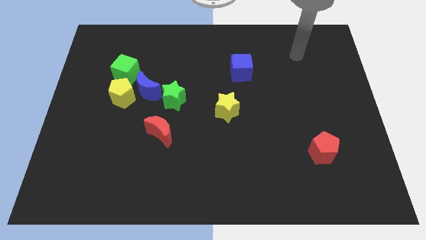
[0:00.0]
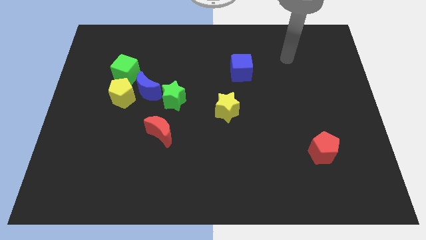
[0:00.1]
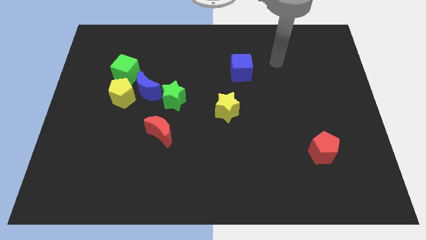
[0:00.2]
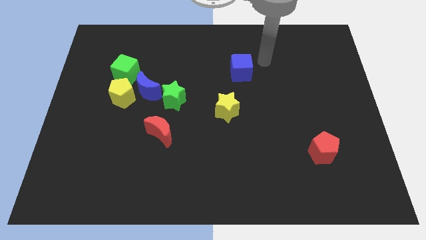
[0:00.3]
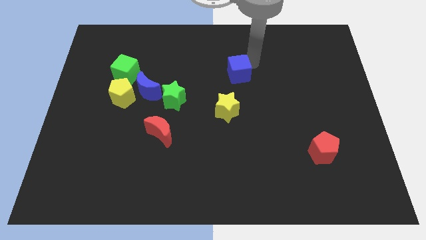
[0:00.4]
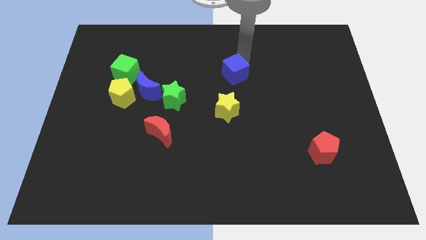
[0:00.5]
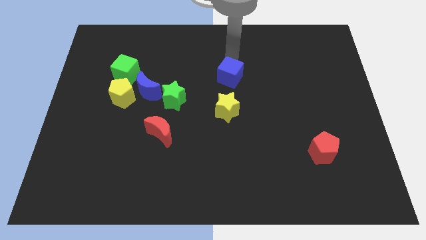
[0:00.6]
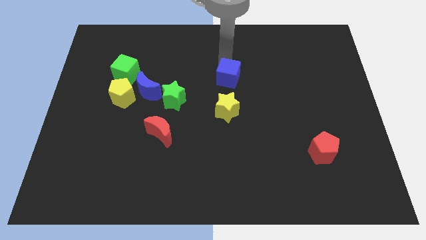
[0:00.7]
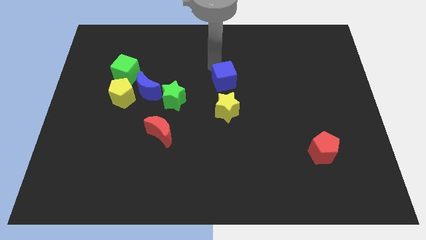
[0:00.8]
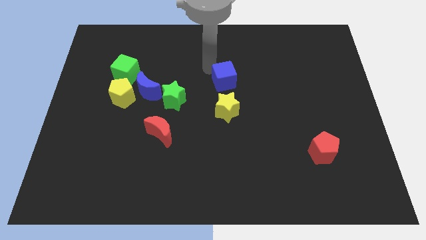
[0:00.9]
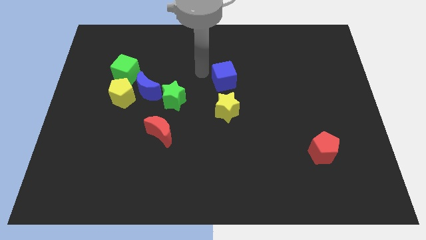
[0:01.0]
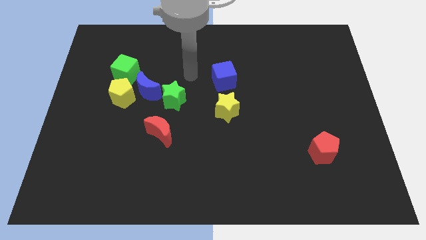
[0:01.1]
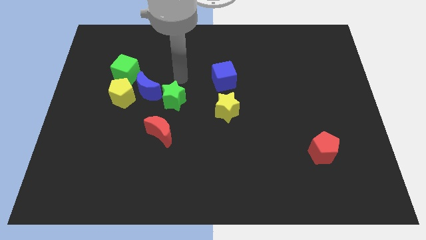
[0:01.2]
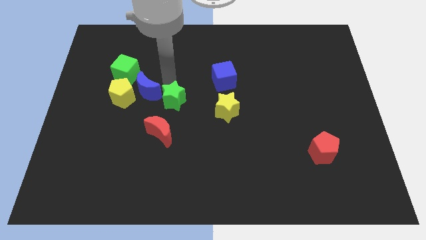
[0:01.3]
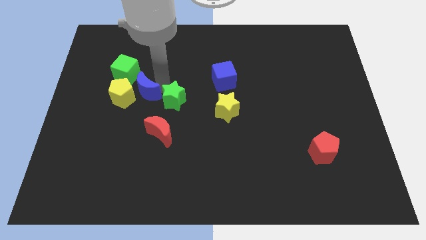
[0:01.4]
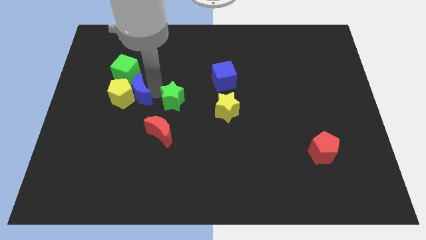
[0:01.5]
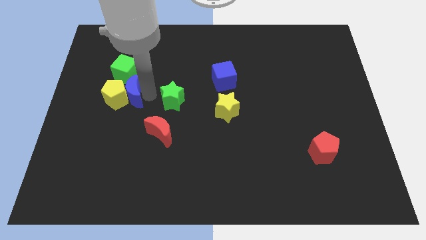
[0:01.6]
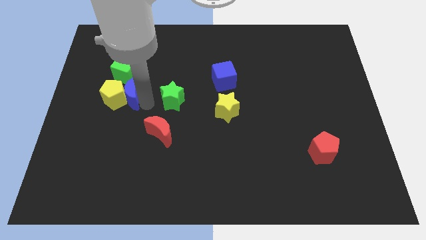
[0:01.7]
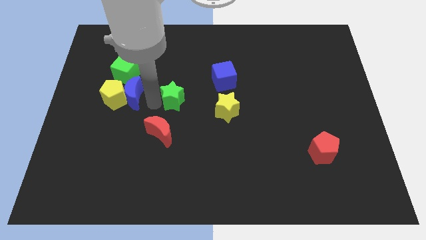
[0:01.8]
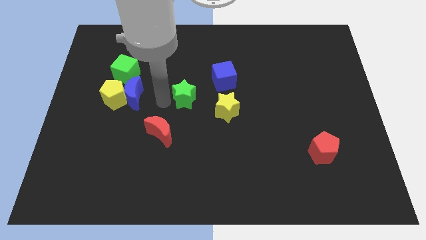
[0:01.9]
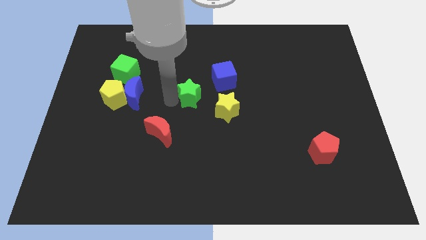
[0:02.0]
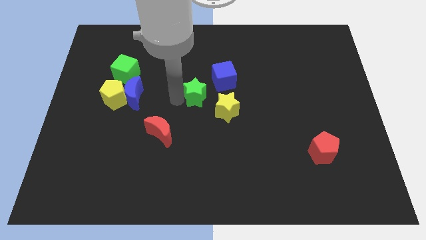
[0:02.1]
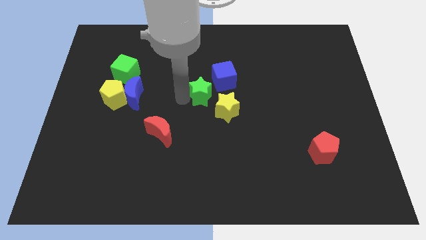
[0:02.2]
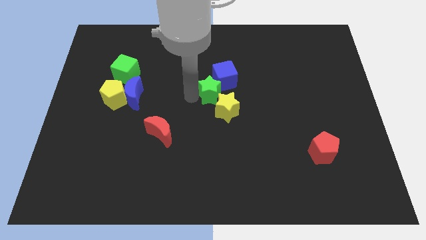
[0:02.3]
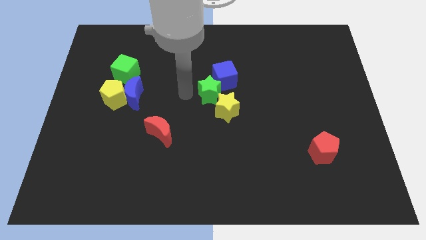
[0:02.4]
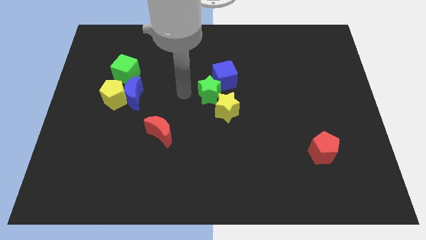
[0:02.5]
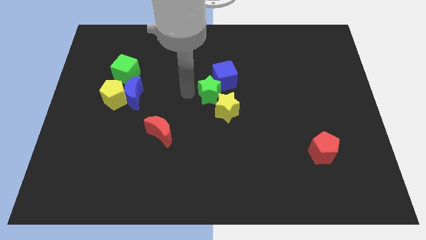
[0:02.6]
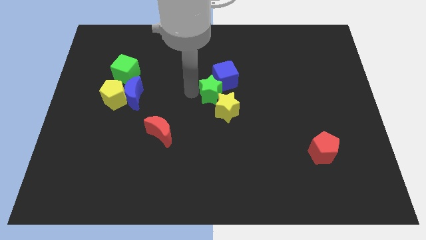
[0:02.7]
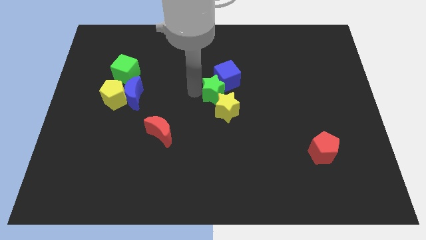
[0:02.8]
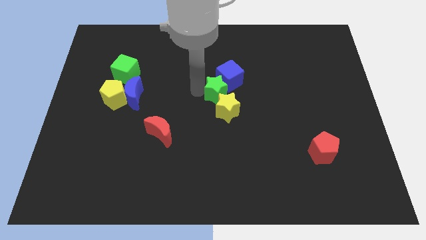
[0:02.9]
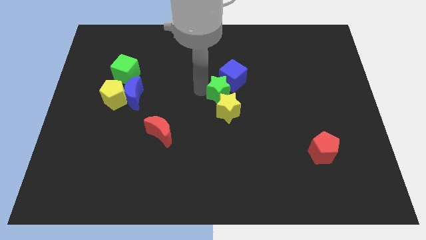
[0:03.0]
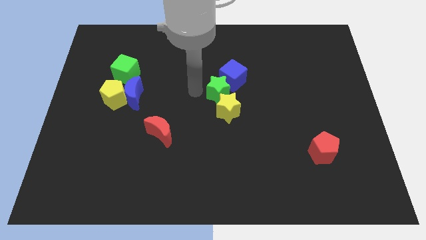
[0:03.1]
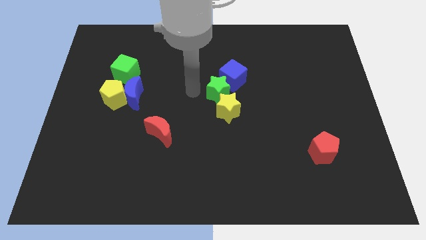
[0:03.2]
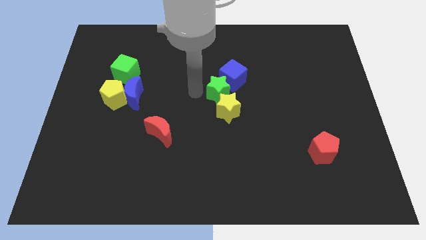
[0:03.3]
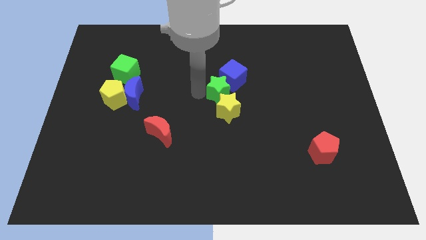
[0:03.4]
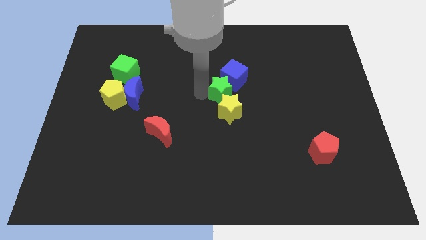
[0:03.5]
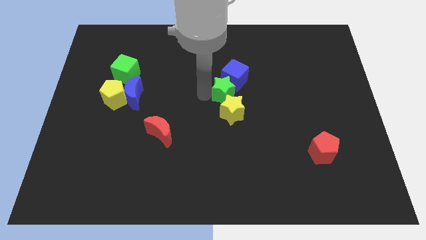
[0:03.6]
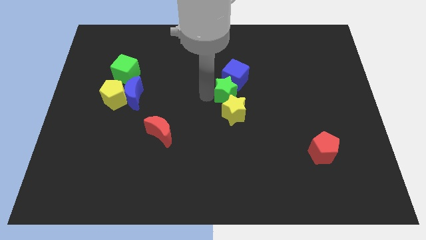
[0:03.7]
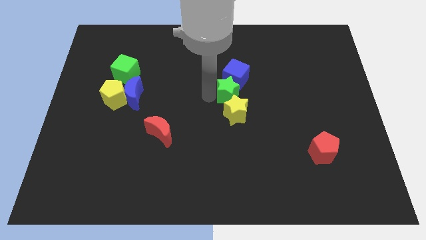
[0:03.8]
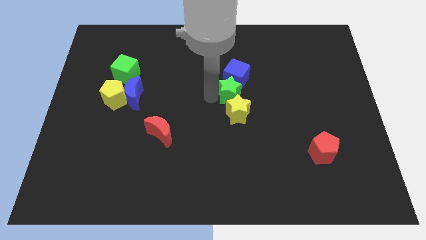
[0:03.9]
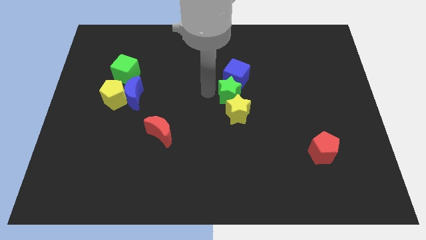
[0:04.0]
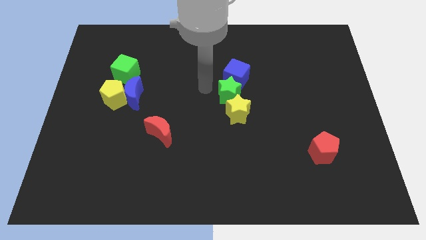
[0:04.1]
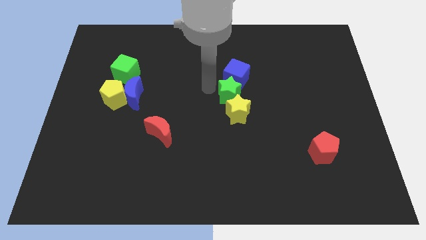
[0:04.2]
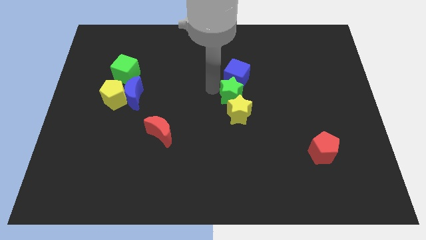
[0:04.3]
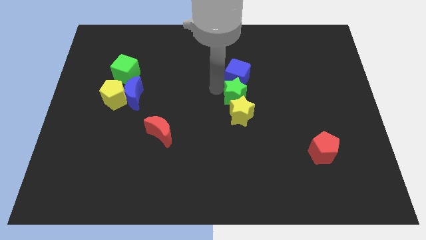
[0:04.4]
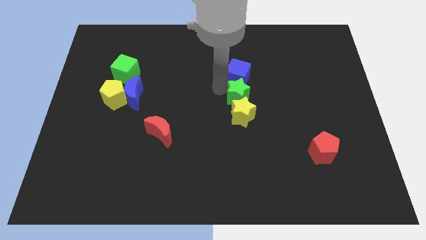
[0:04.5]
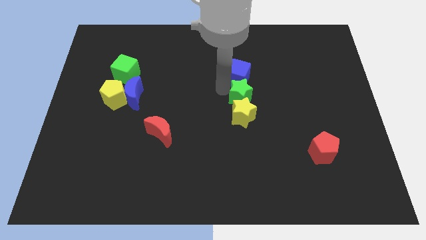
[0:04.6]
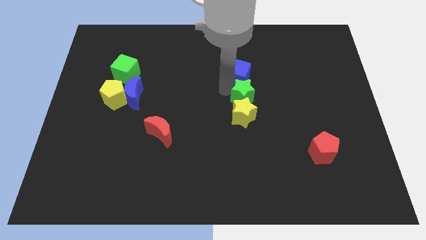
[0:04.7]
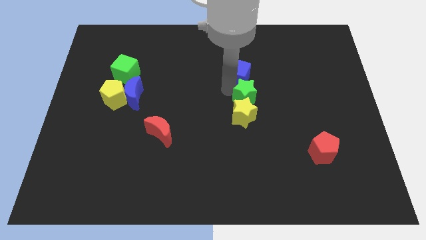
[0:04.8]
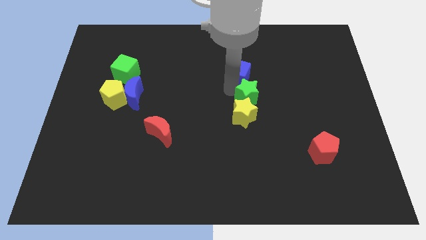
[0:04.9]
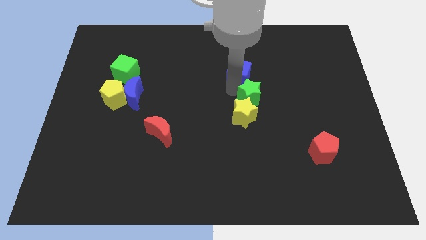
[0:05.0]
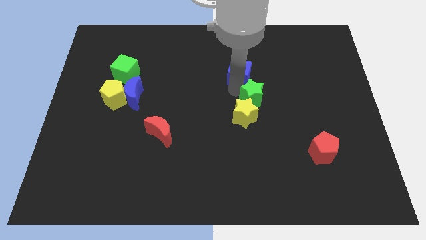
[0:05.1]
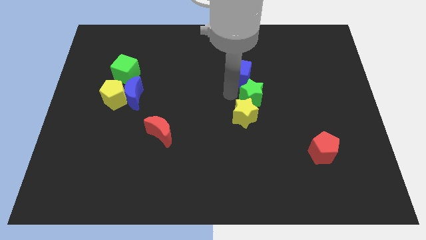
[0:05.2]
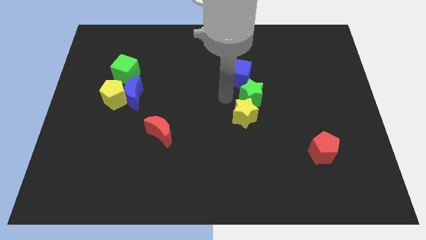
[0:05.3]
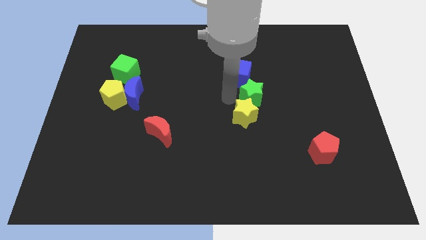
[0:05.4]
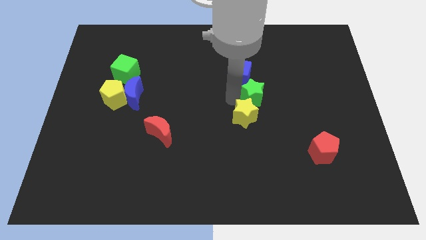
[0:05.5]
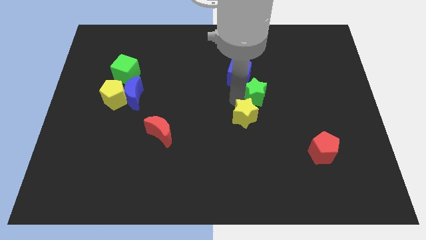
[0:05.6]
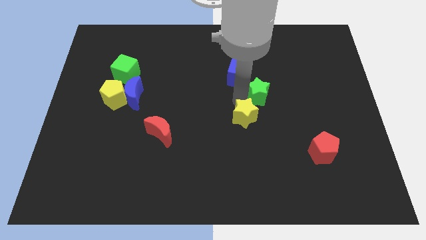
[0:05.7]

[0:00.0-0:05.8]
move the green star to the right

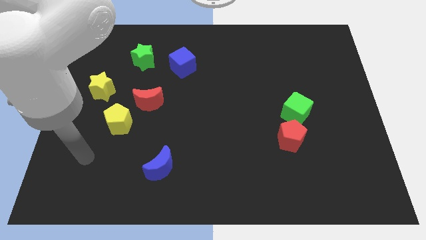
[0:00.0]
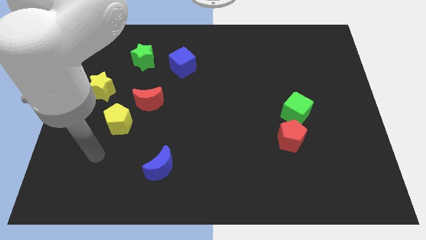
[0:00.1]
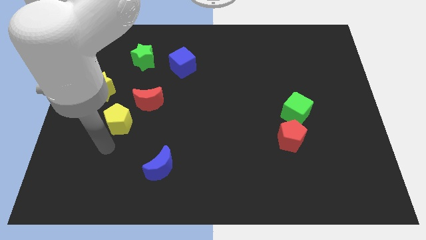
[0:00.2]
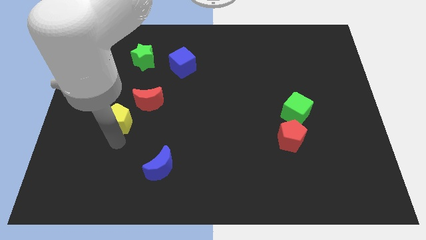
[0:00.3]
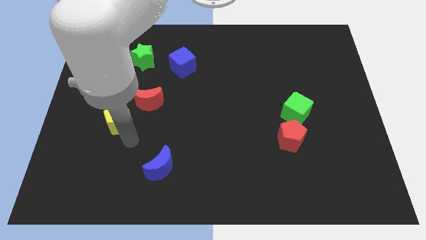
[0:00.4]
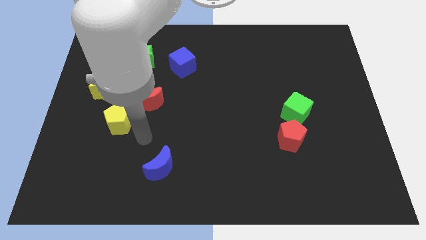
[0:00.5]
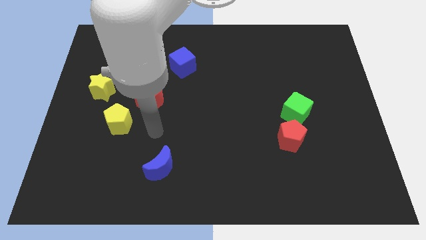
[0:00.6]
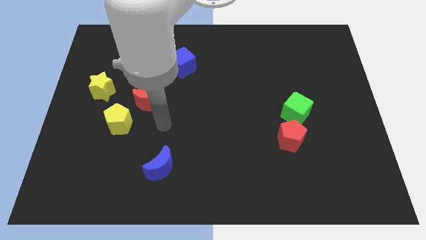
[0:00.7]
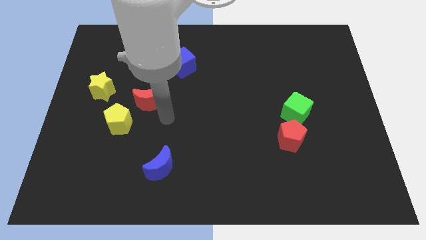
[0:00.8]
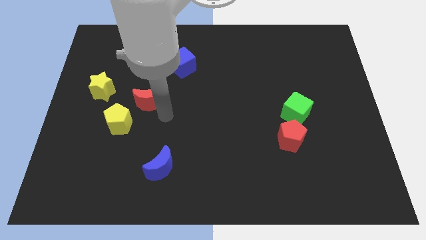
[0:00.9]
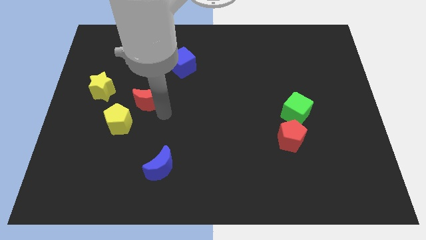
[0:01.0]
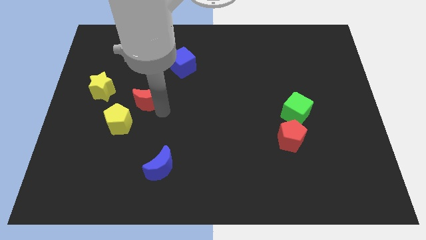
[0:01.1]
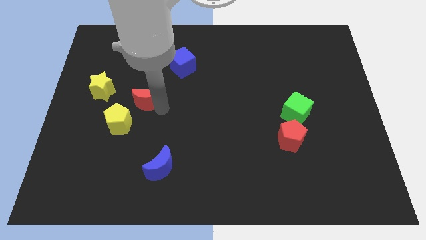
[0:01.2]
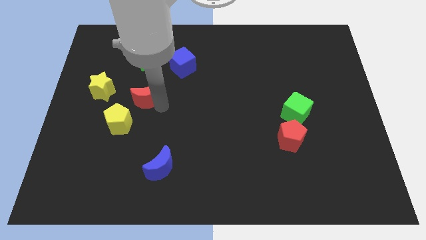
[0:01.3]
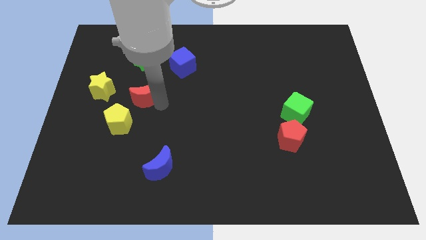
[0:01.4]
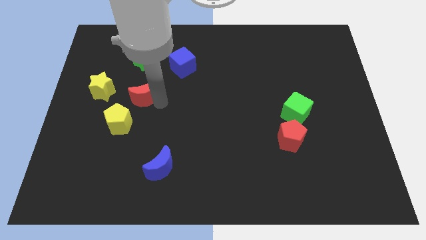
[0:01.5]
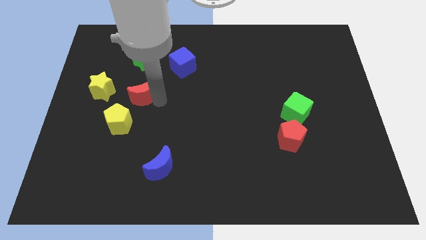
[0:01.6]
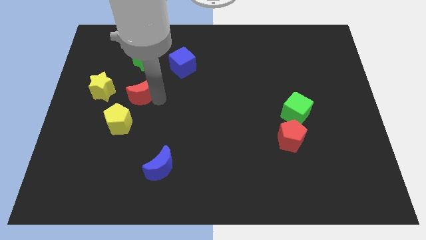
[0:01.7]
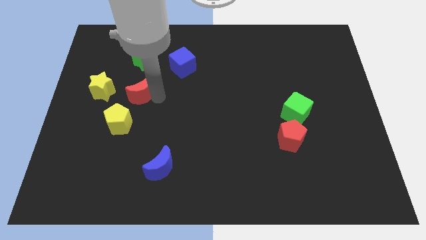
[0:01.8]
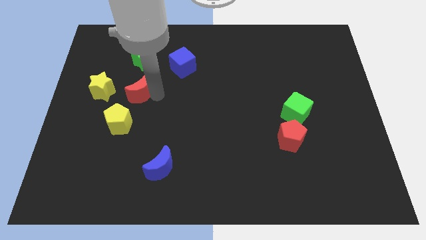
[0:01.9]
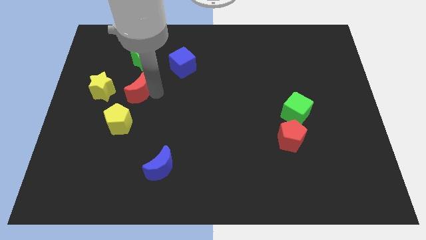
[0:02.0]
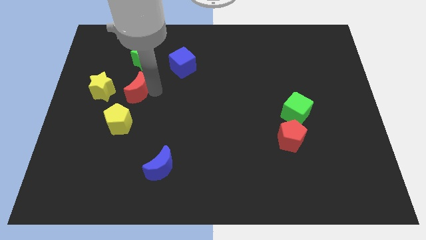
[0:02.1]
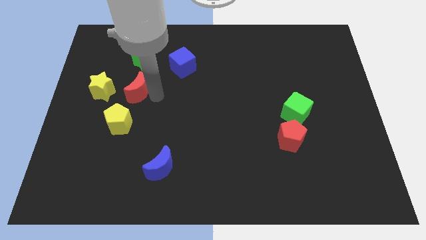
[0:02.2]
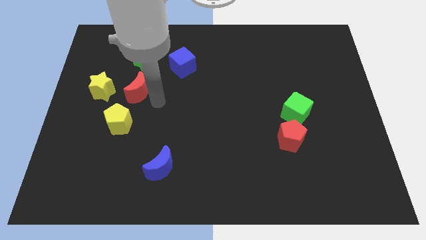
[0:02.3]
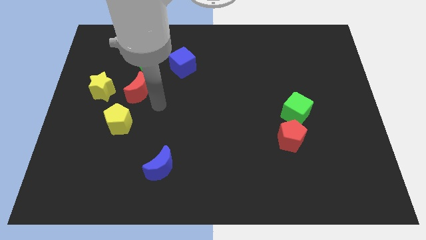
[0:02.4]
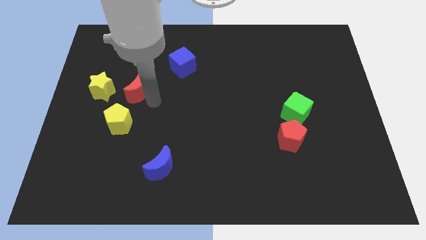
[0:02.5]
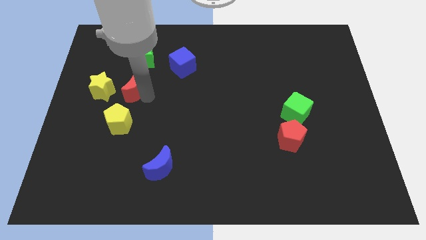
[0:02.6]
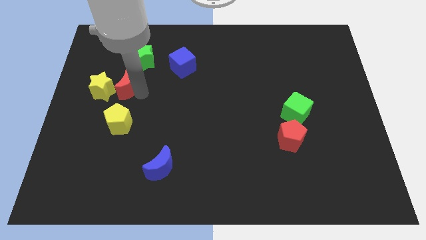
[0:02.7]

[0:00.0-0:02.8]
slide the red moon a little bit up and to the left diagonally
